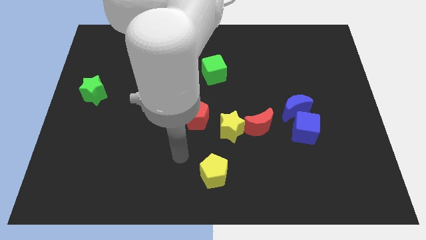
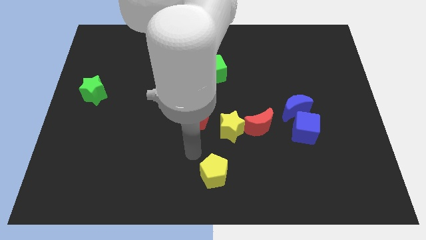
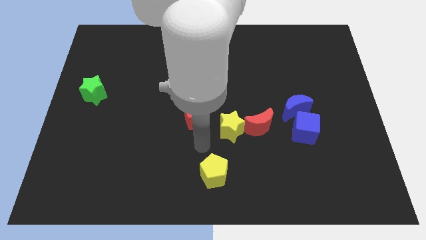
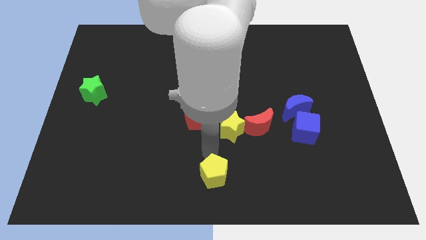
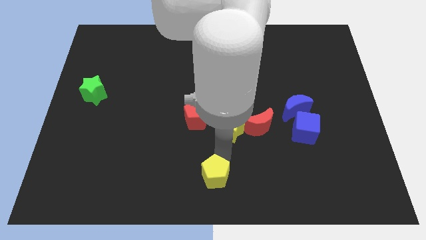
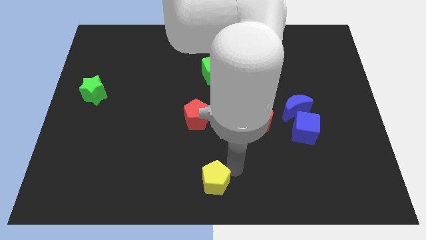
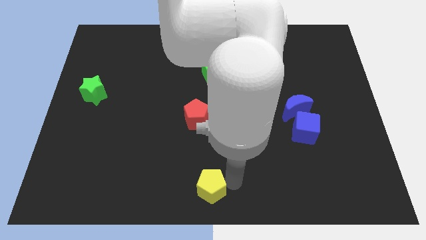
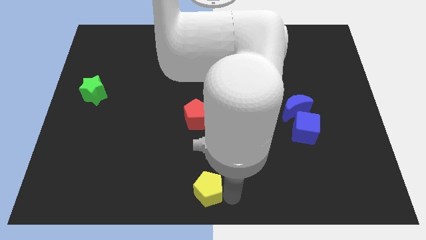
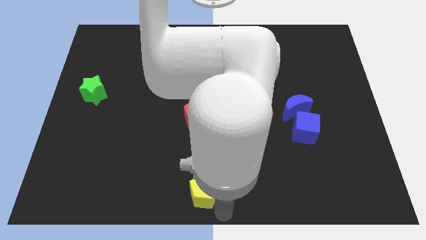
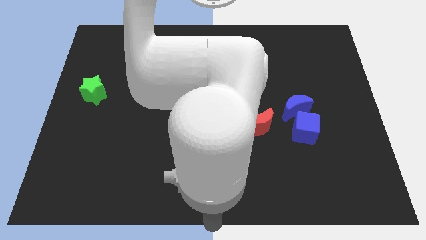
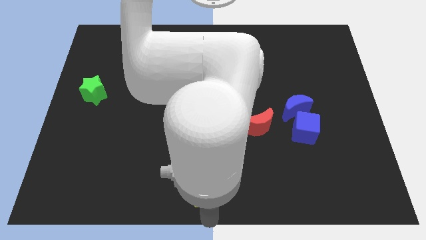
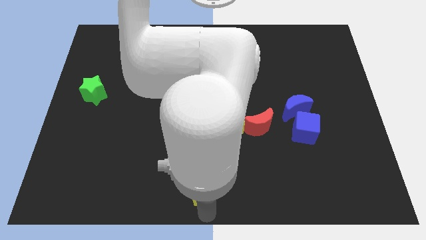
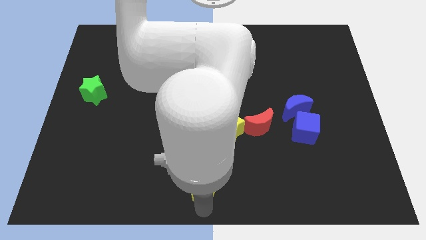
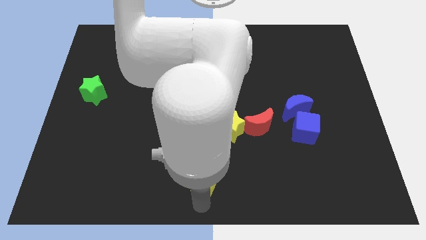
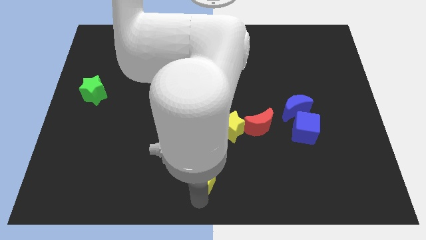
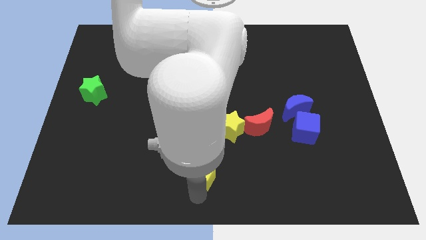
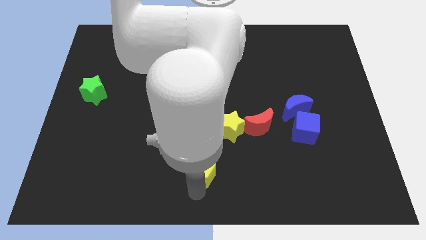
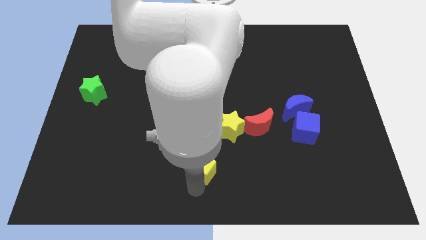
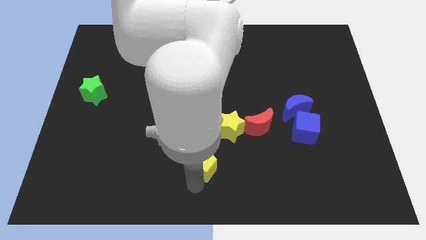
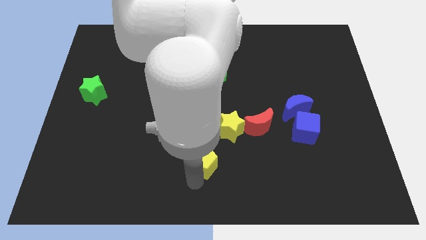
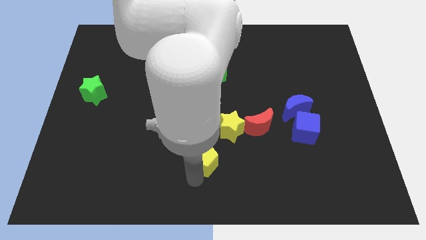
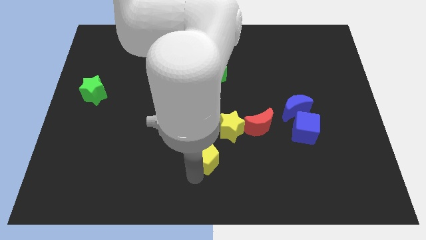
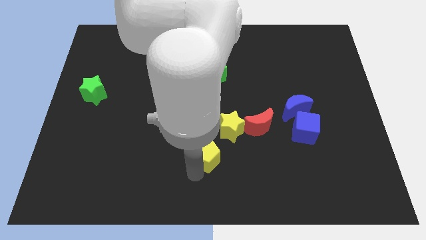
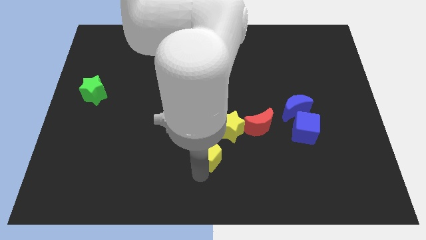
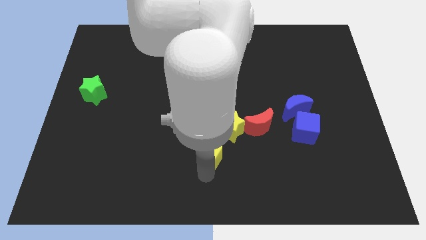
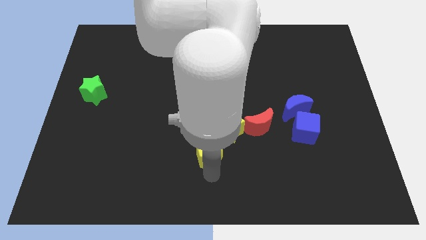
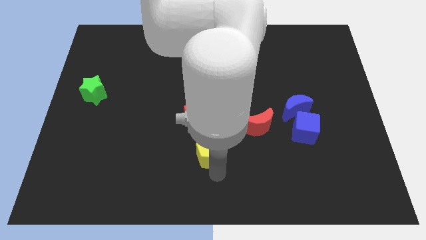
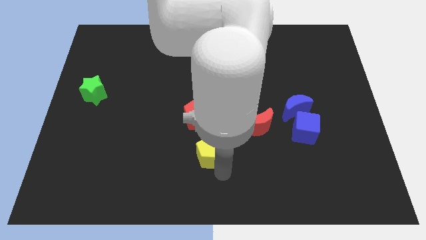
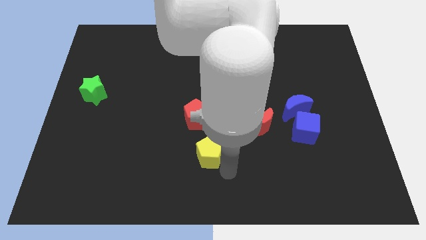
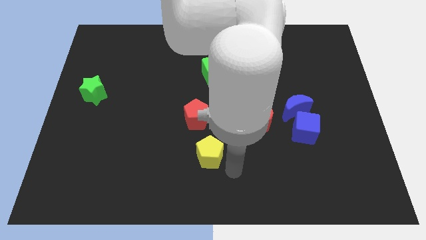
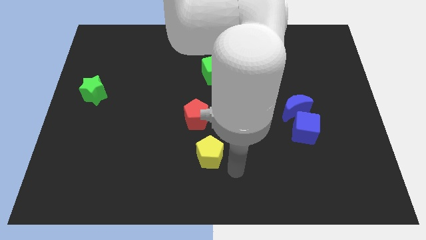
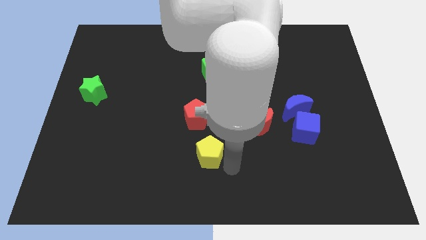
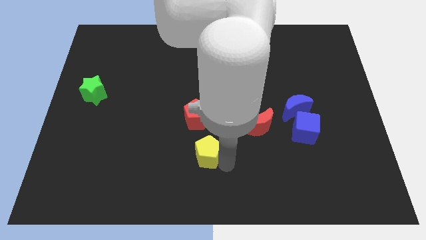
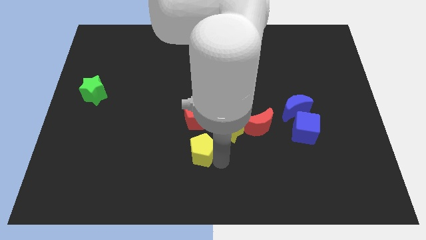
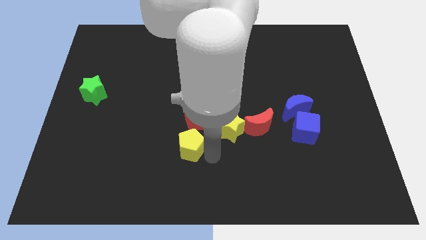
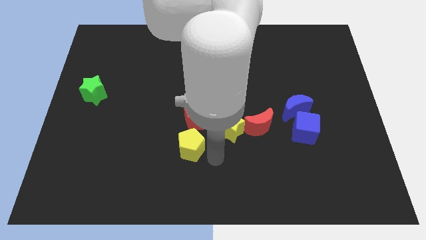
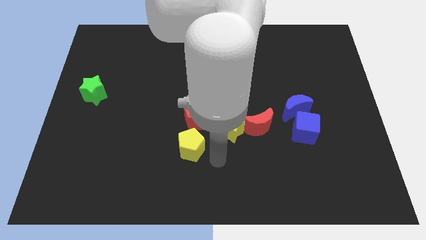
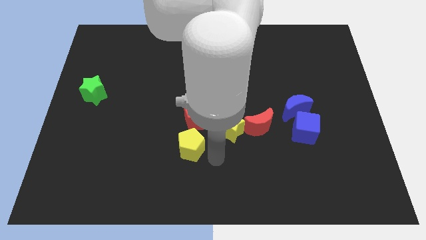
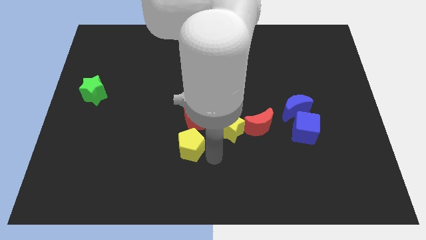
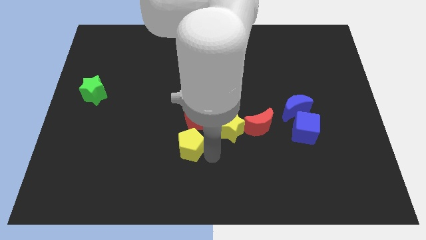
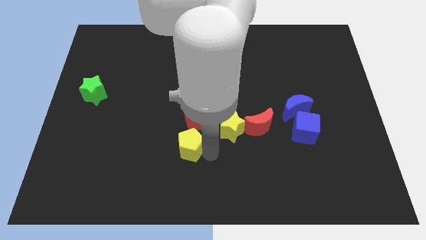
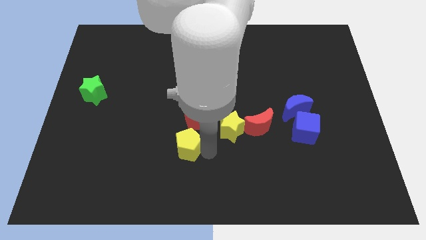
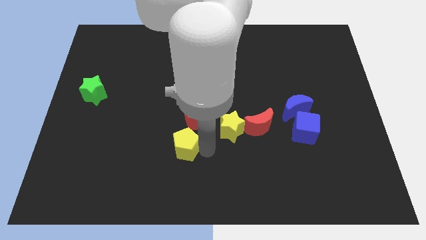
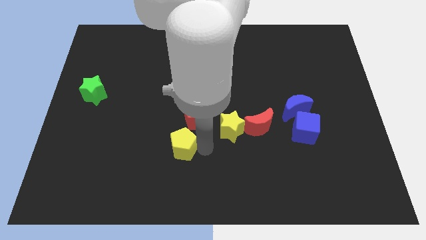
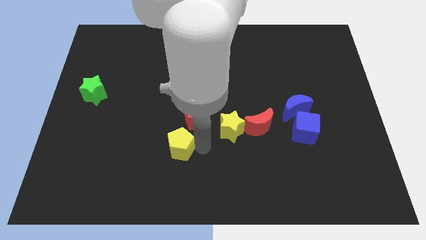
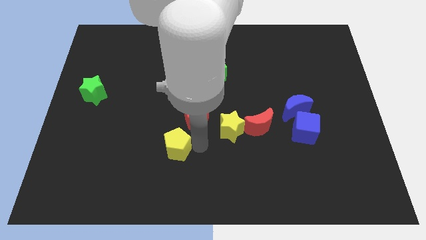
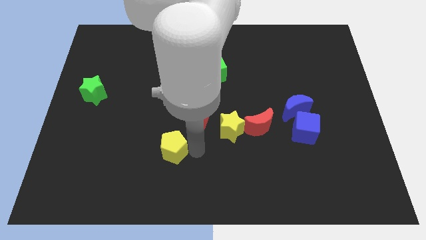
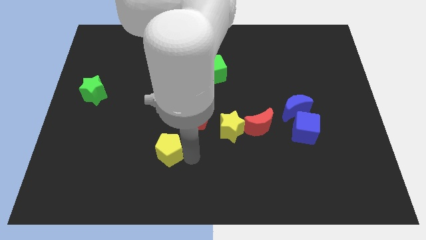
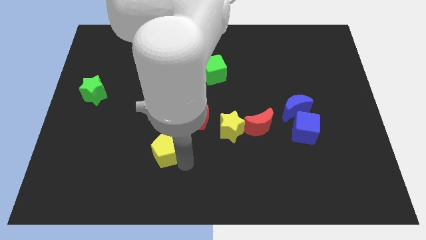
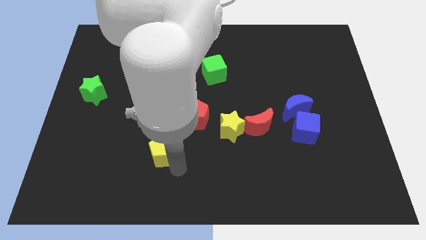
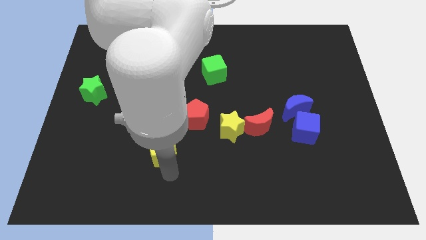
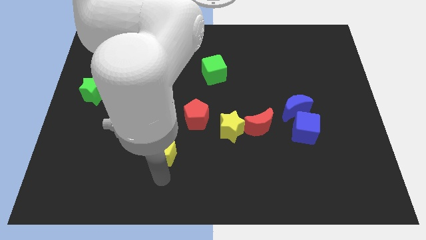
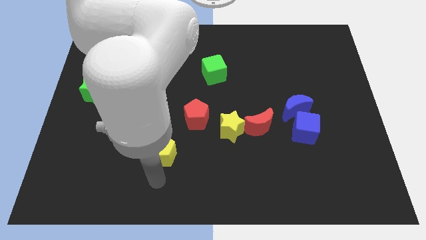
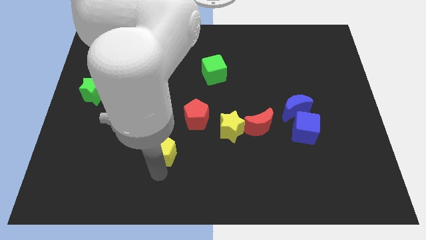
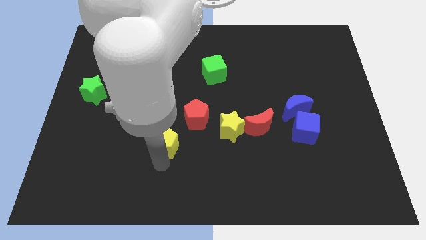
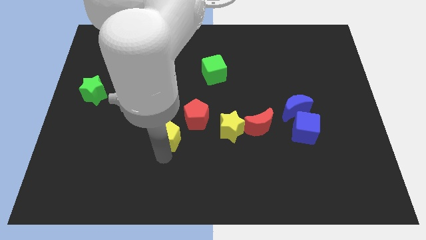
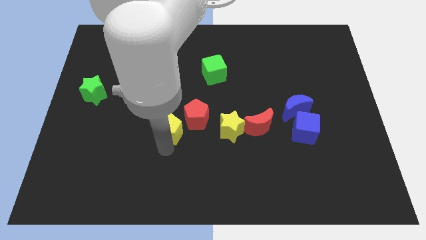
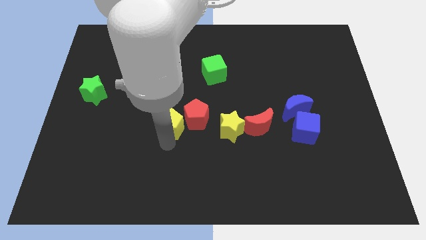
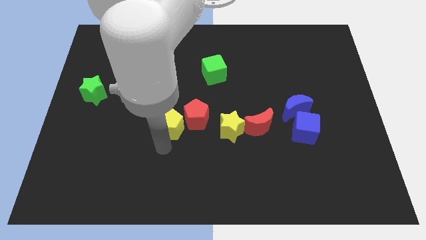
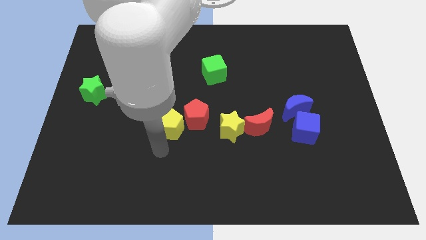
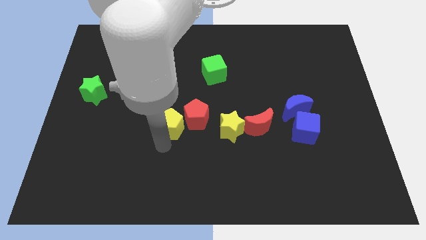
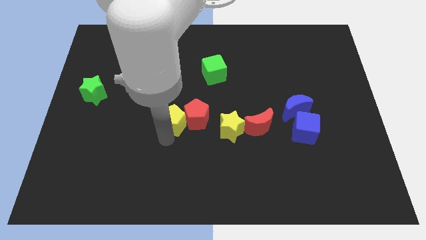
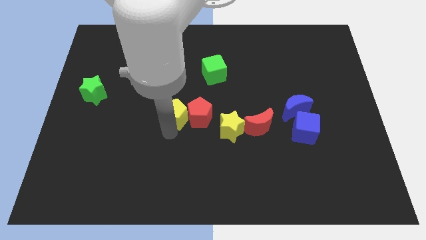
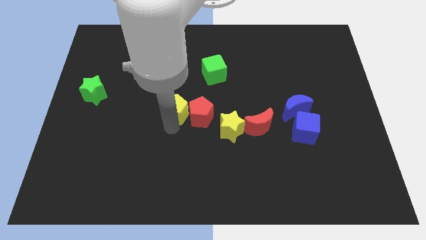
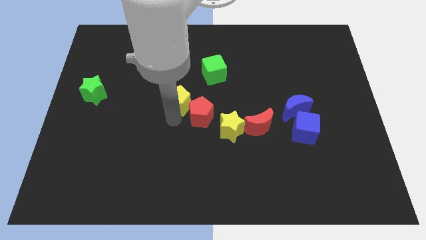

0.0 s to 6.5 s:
move the yellow pentagon to the bottom left of the green cube

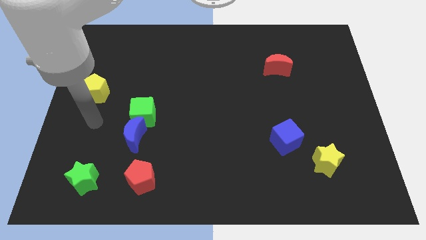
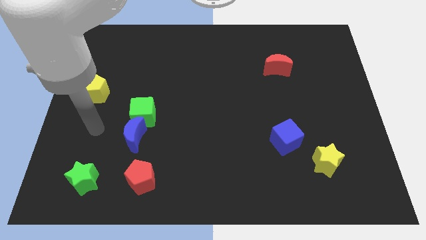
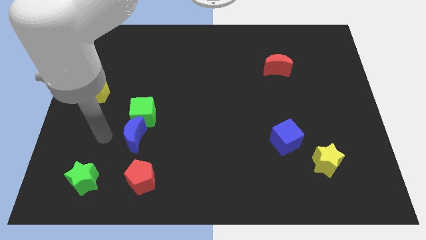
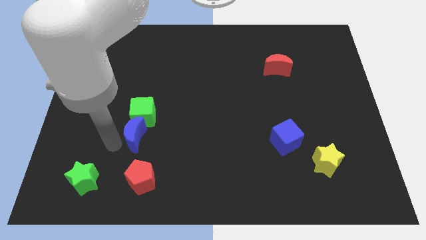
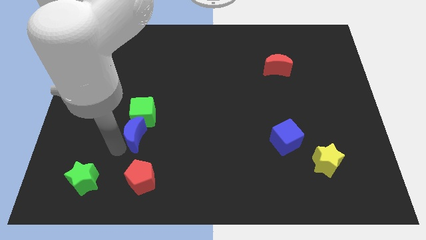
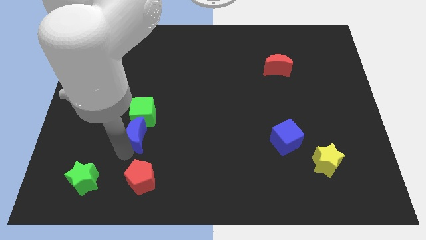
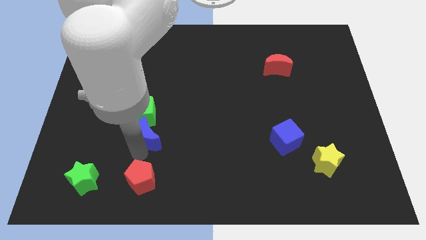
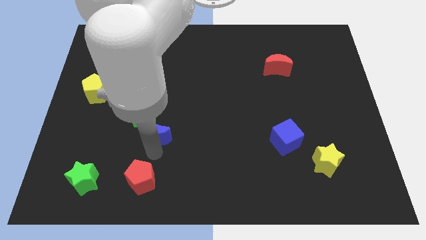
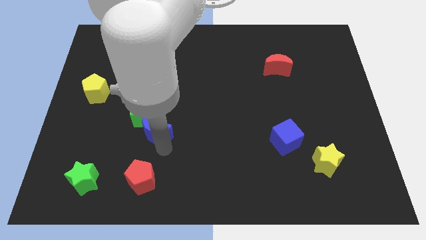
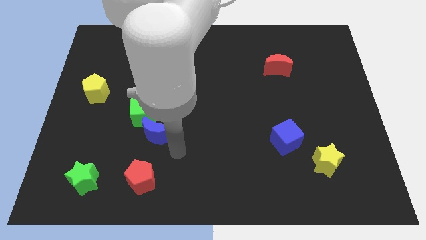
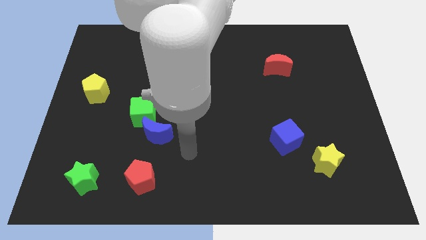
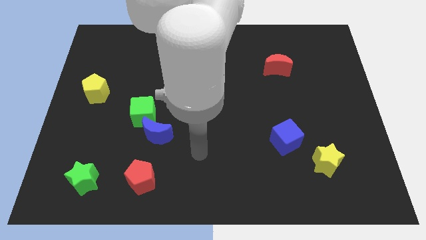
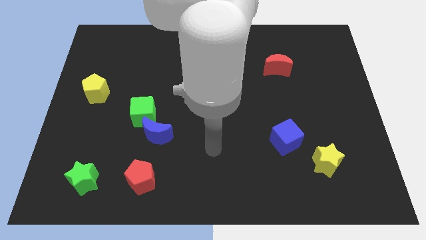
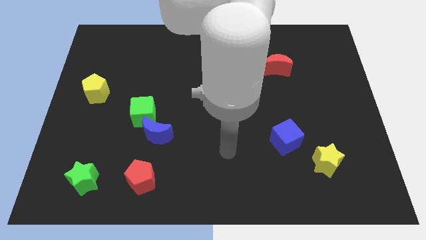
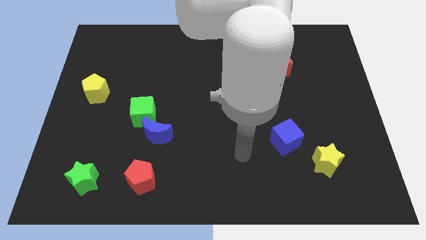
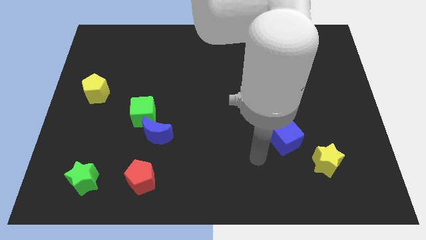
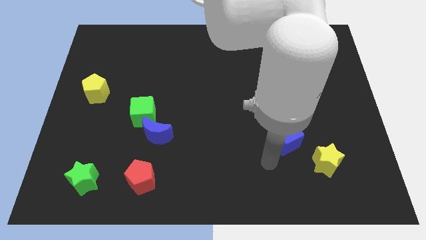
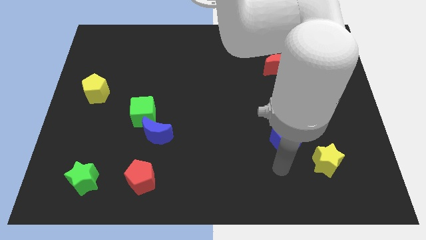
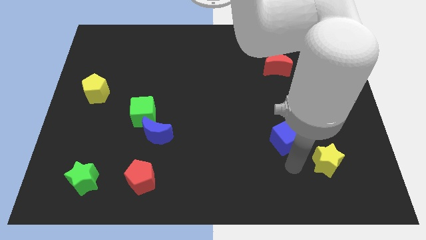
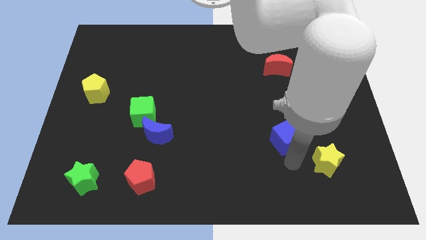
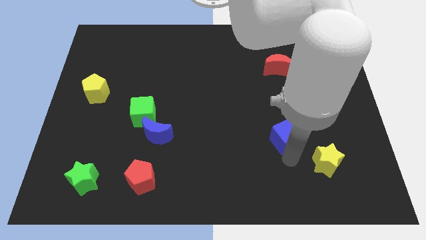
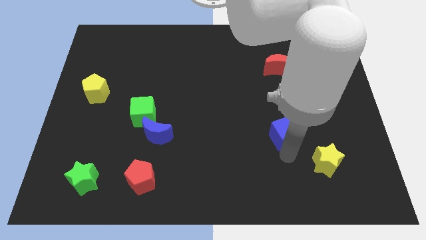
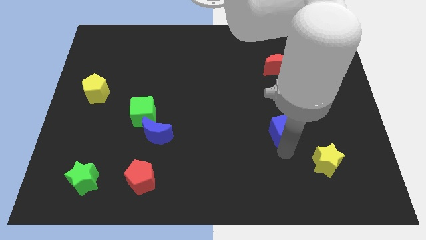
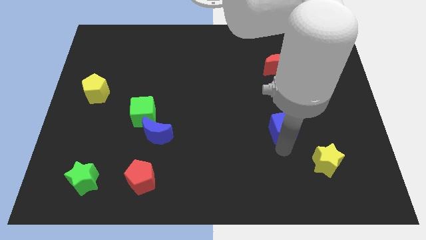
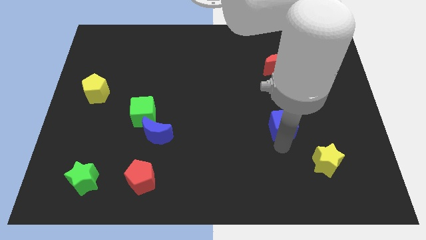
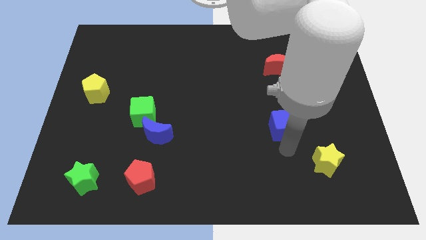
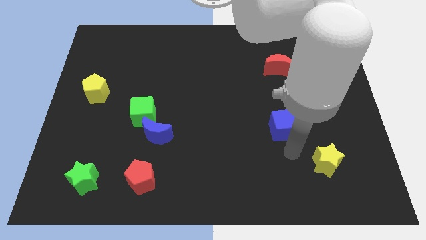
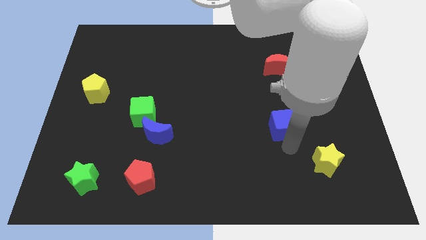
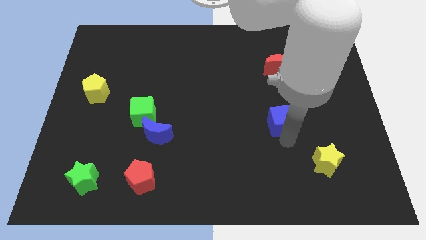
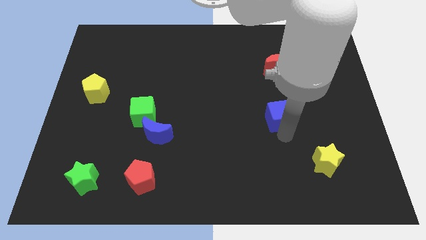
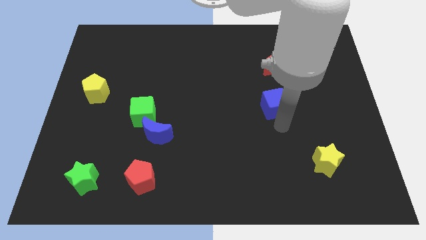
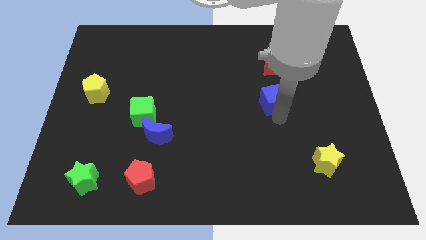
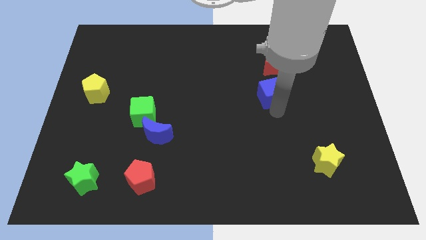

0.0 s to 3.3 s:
slide the blue cube to the bottom left of the red moon
